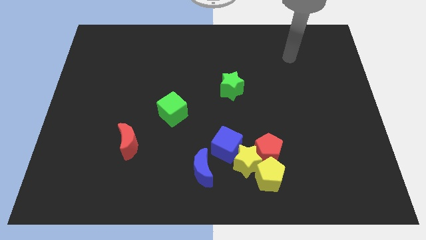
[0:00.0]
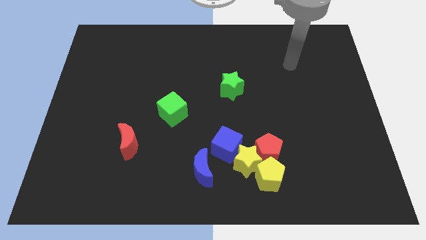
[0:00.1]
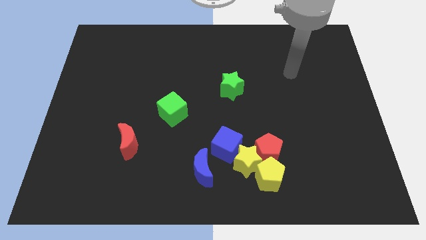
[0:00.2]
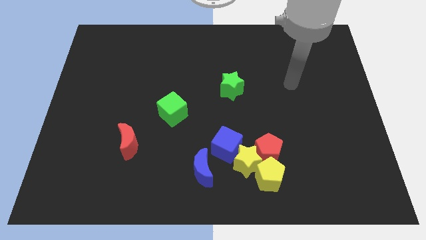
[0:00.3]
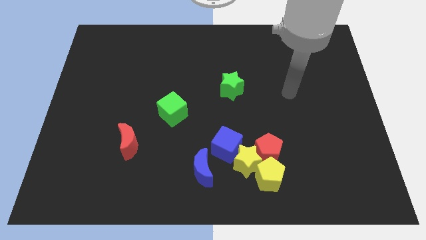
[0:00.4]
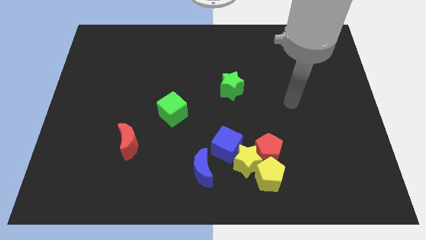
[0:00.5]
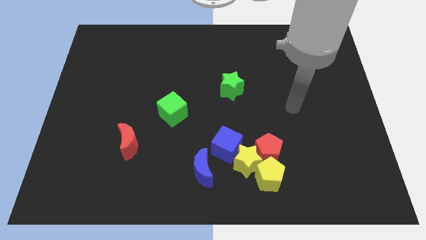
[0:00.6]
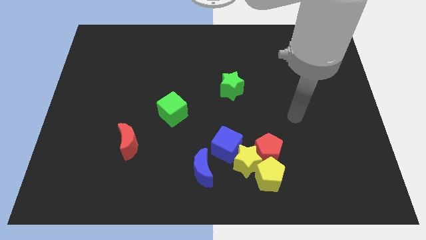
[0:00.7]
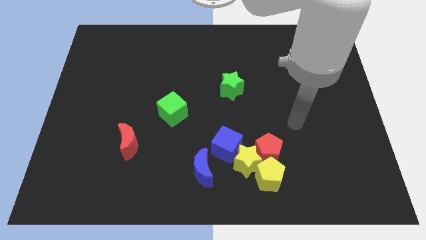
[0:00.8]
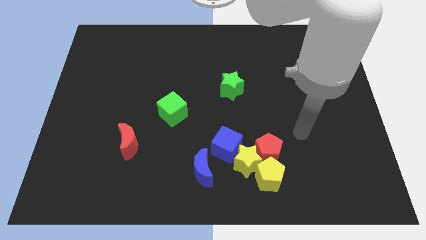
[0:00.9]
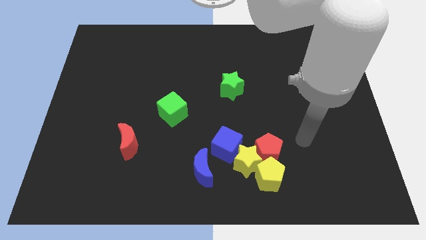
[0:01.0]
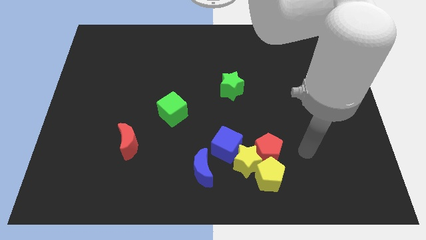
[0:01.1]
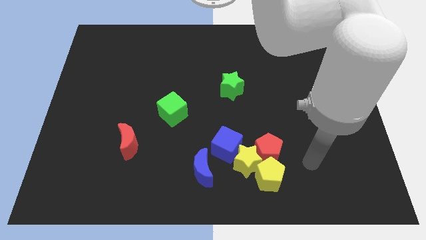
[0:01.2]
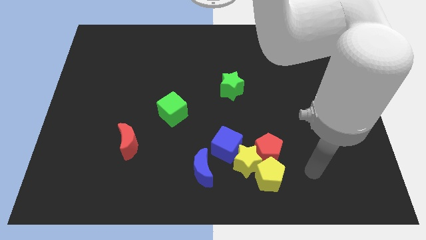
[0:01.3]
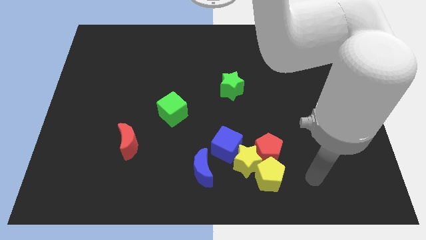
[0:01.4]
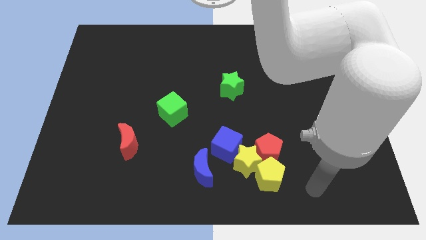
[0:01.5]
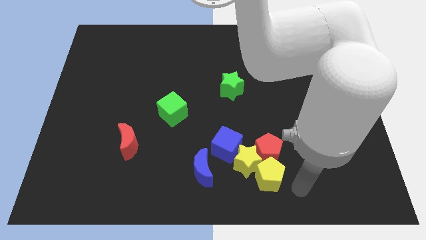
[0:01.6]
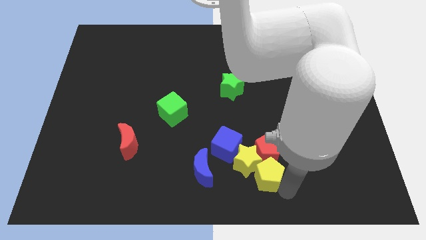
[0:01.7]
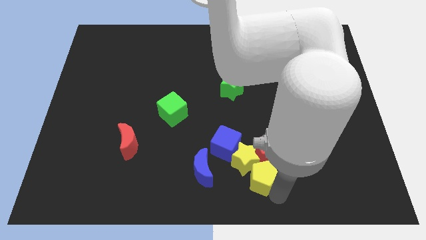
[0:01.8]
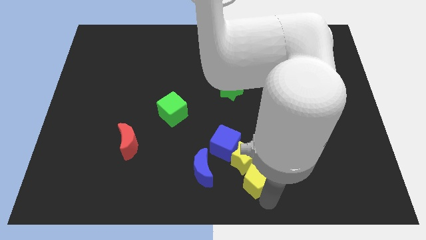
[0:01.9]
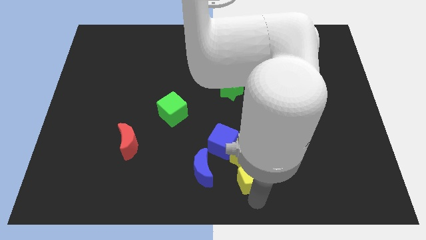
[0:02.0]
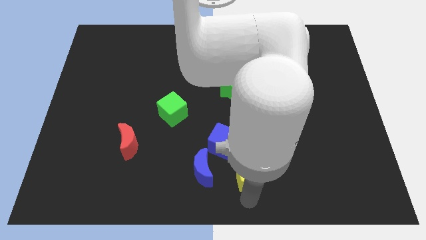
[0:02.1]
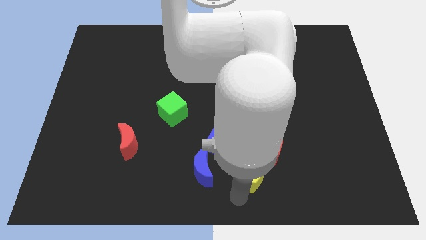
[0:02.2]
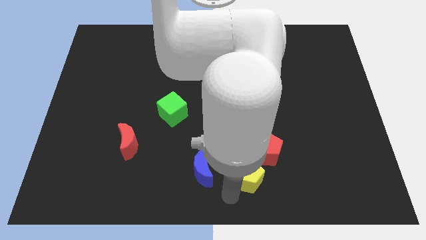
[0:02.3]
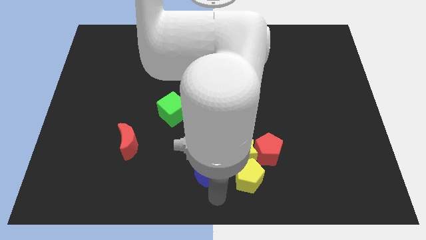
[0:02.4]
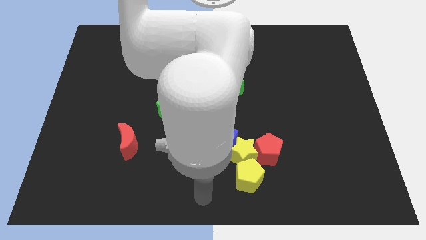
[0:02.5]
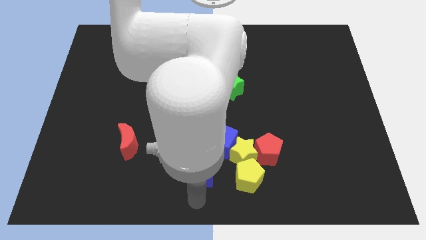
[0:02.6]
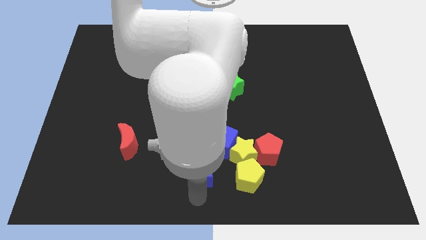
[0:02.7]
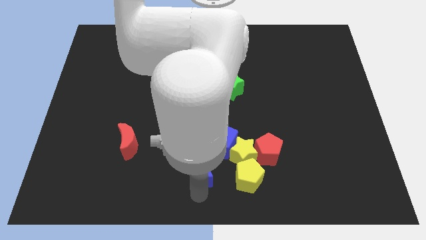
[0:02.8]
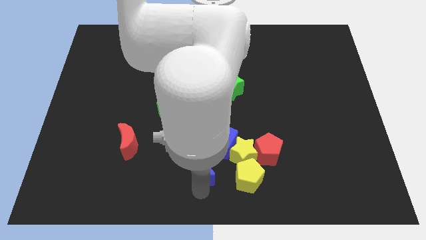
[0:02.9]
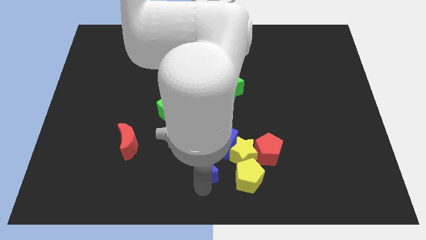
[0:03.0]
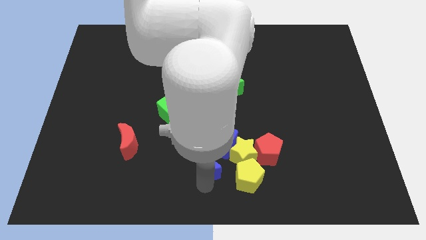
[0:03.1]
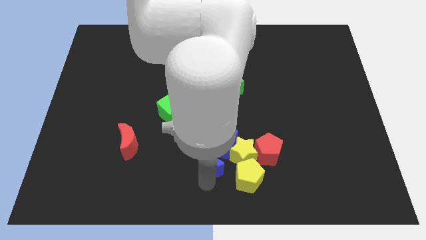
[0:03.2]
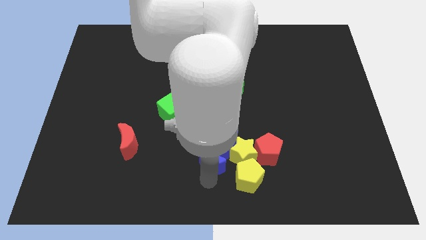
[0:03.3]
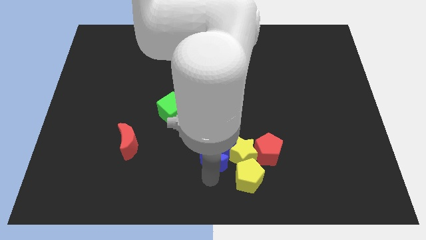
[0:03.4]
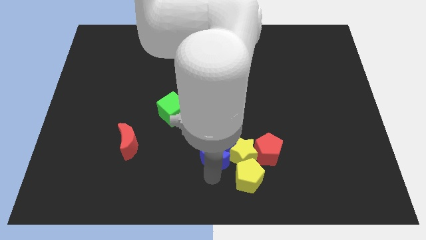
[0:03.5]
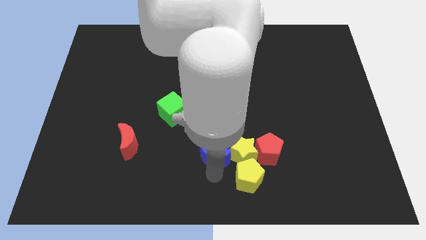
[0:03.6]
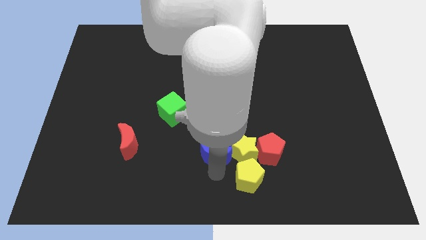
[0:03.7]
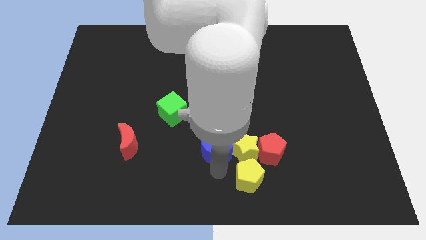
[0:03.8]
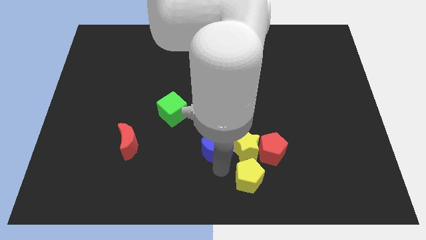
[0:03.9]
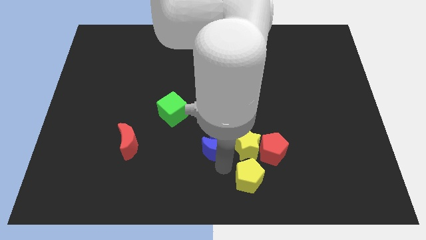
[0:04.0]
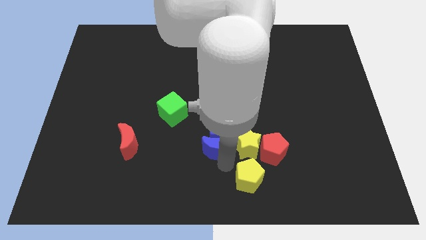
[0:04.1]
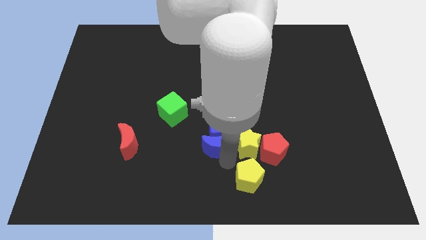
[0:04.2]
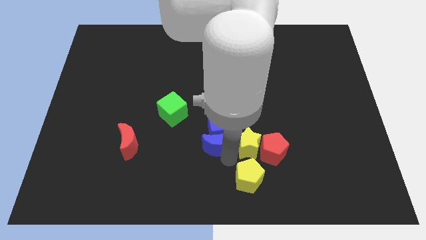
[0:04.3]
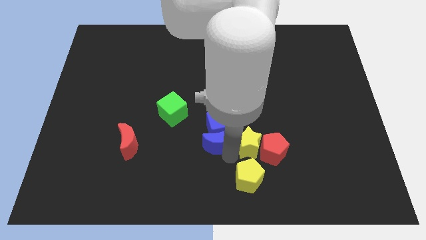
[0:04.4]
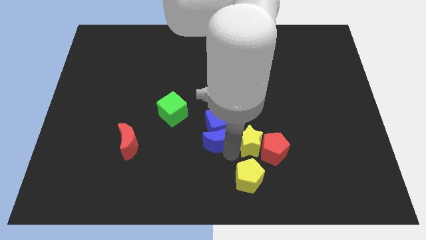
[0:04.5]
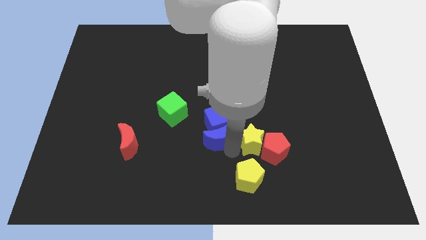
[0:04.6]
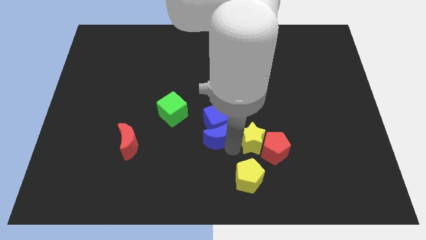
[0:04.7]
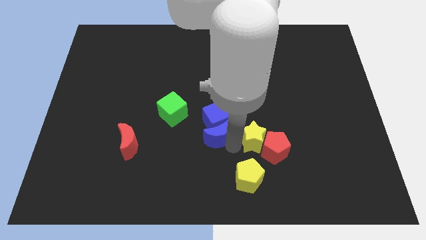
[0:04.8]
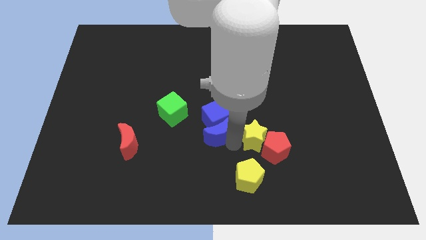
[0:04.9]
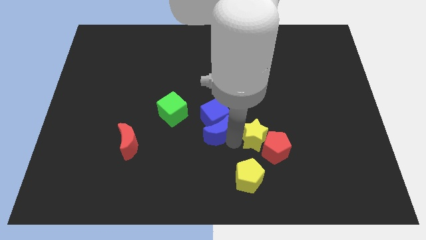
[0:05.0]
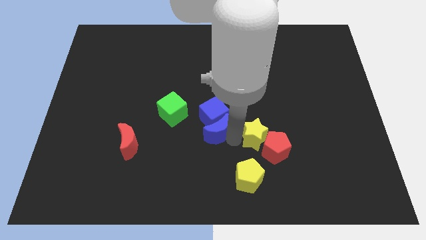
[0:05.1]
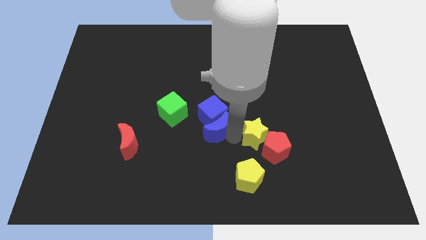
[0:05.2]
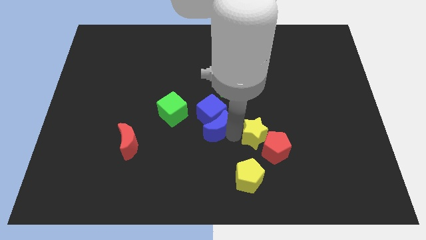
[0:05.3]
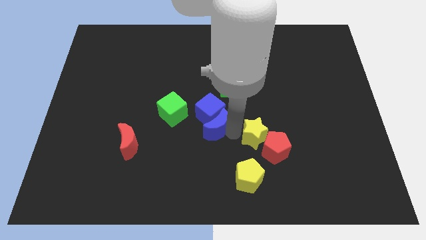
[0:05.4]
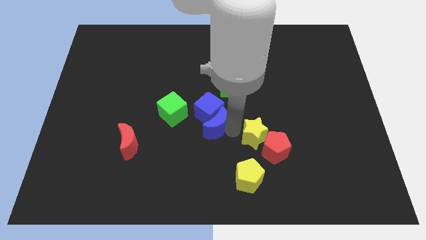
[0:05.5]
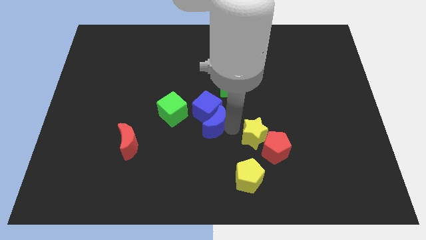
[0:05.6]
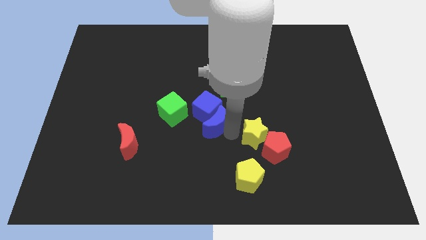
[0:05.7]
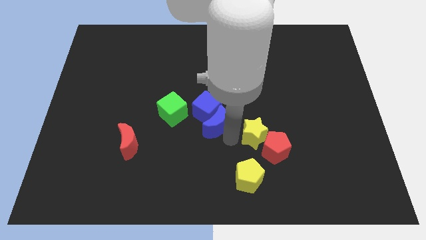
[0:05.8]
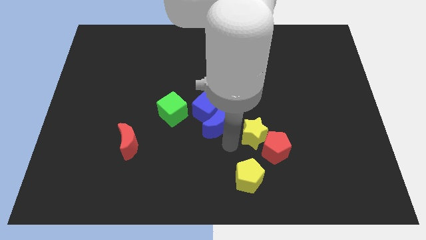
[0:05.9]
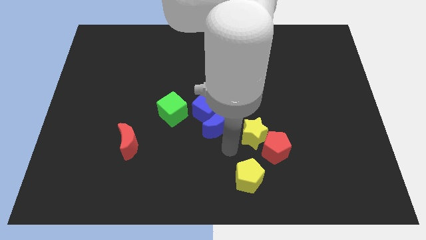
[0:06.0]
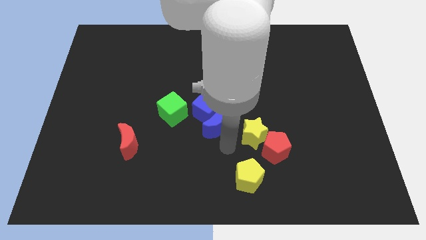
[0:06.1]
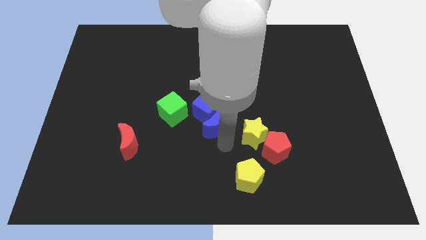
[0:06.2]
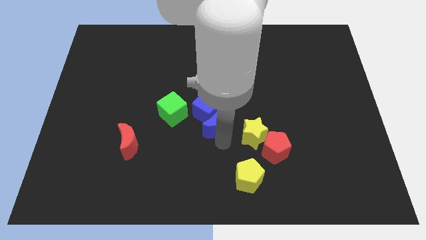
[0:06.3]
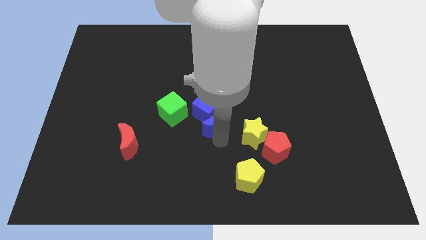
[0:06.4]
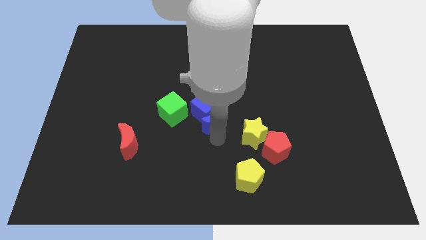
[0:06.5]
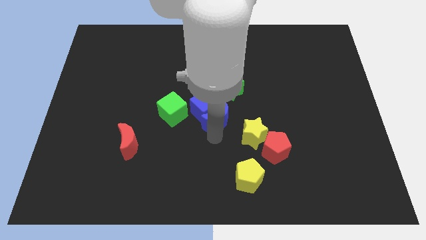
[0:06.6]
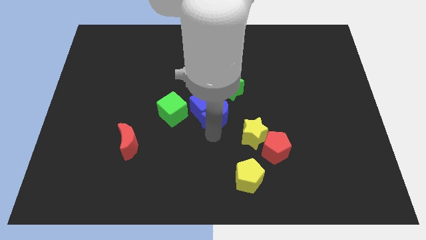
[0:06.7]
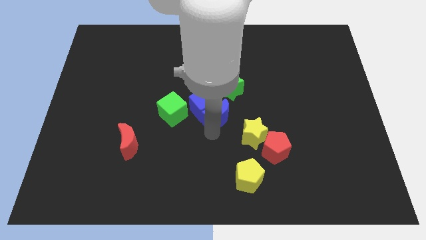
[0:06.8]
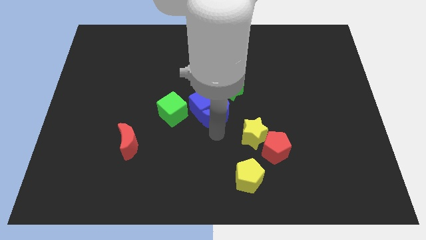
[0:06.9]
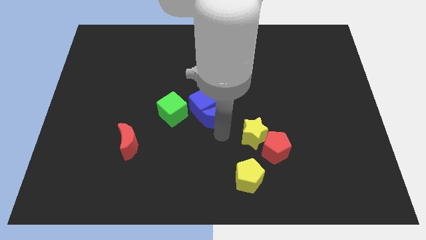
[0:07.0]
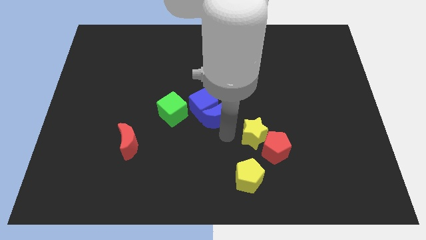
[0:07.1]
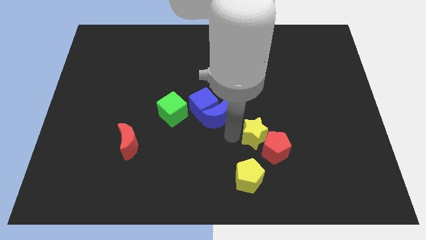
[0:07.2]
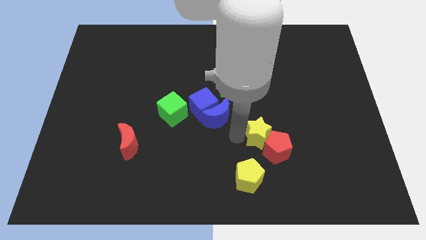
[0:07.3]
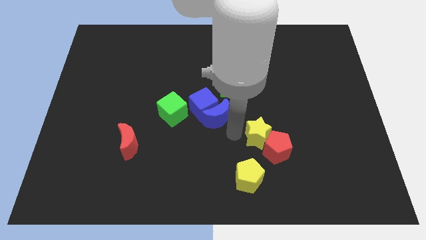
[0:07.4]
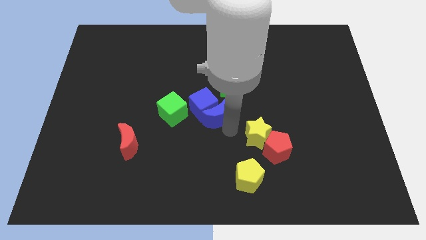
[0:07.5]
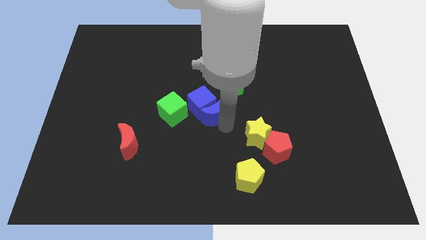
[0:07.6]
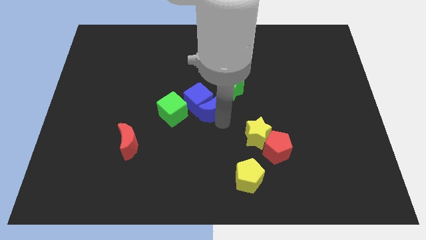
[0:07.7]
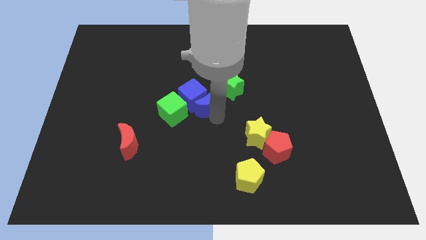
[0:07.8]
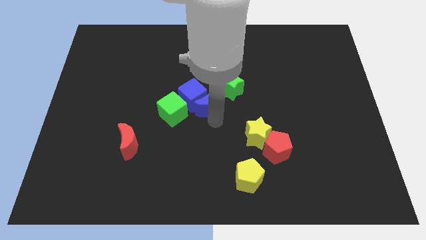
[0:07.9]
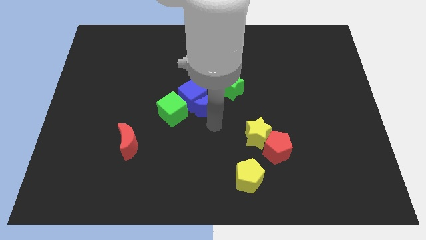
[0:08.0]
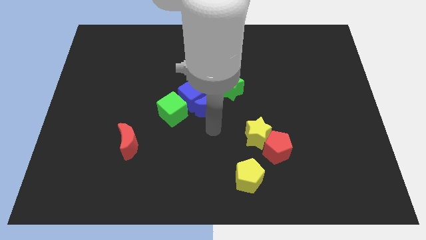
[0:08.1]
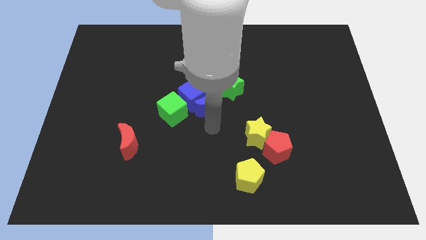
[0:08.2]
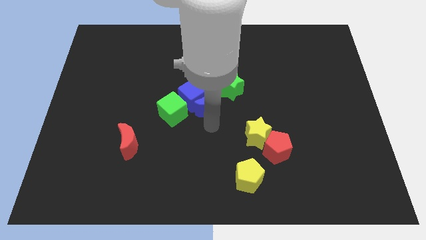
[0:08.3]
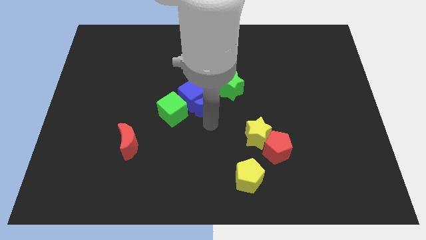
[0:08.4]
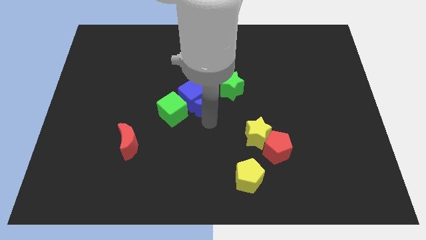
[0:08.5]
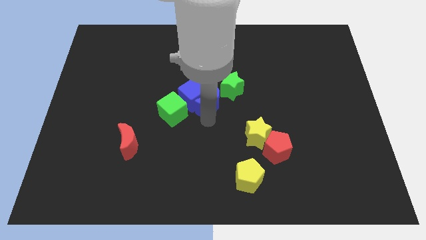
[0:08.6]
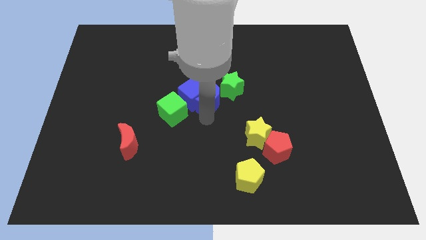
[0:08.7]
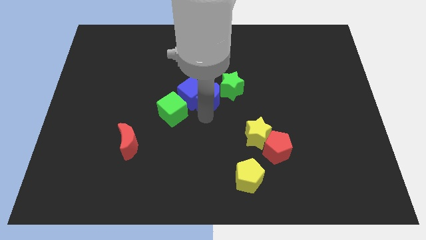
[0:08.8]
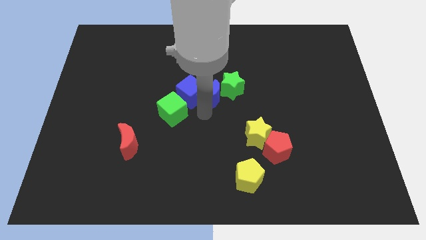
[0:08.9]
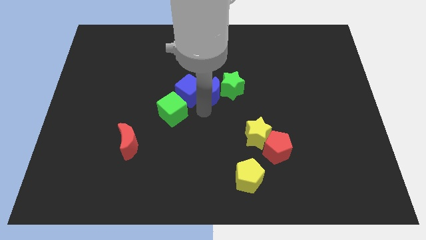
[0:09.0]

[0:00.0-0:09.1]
slide the blue moon upwards
